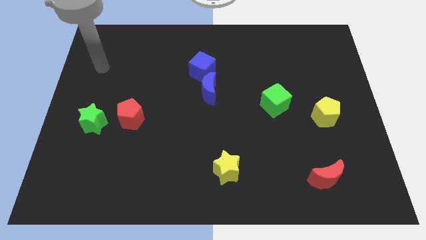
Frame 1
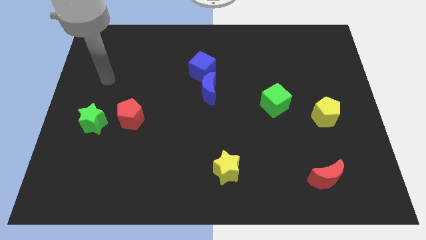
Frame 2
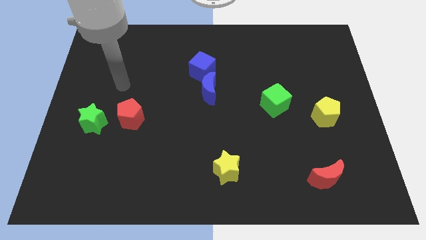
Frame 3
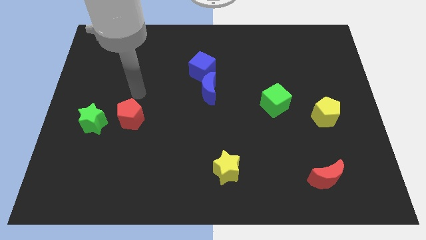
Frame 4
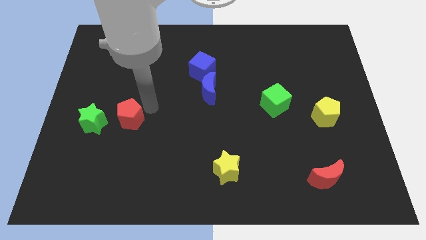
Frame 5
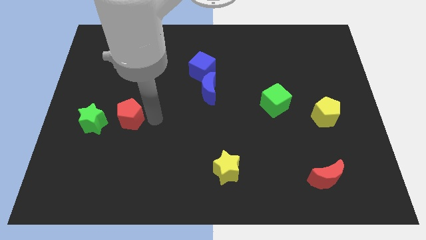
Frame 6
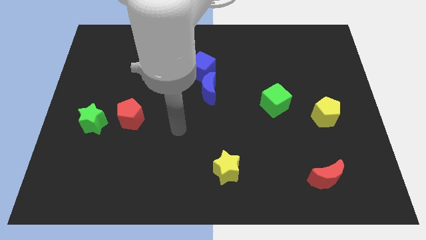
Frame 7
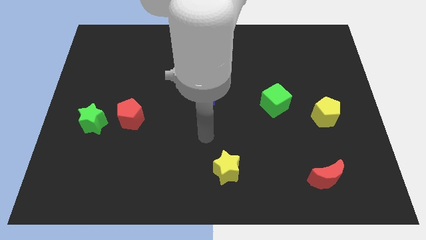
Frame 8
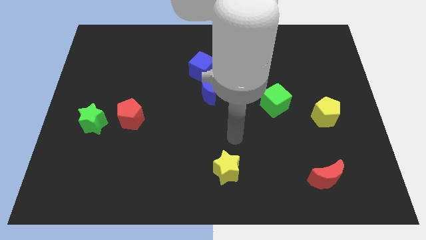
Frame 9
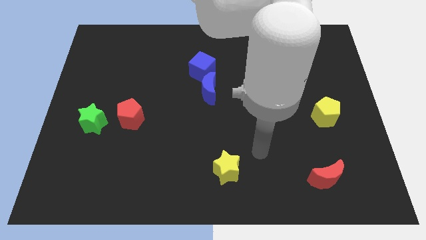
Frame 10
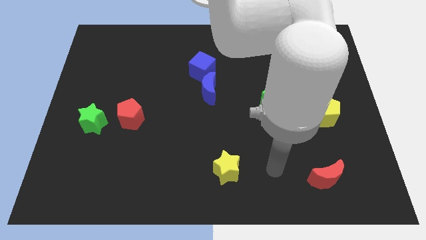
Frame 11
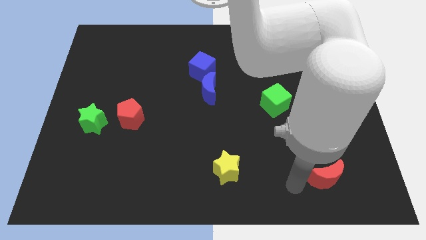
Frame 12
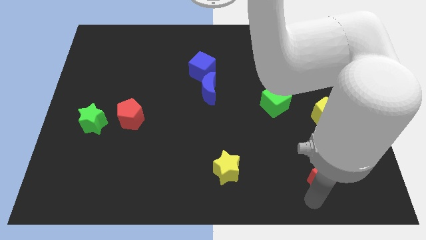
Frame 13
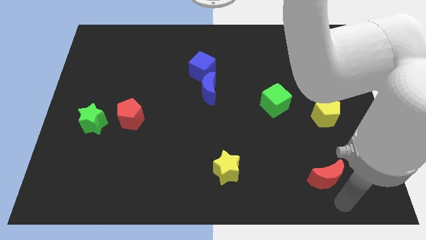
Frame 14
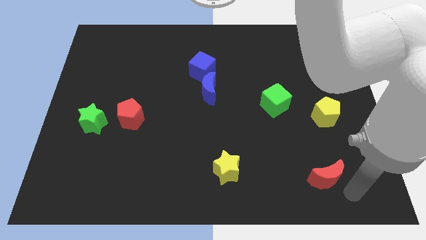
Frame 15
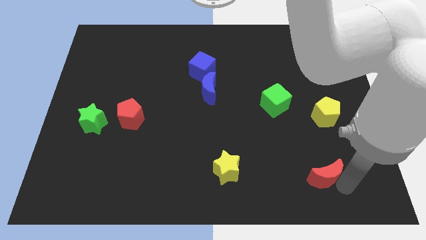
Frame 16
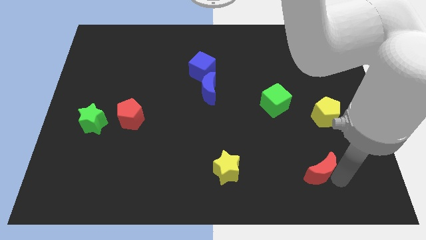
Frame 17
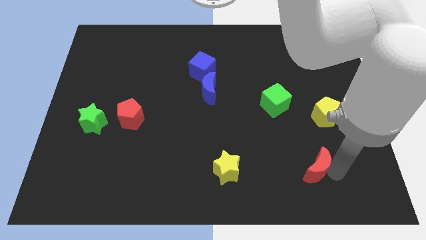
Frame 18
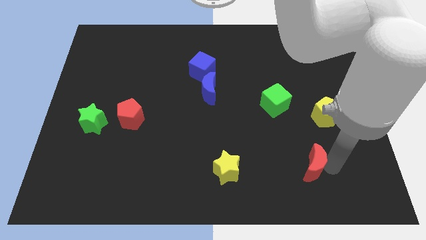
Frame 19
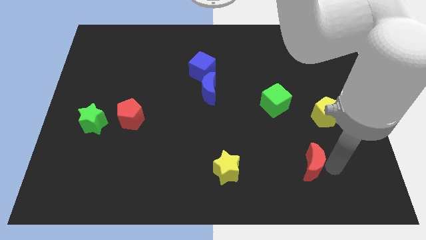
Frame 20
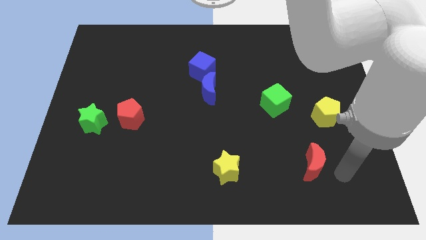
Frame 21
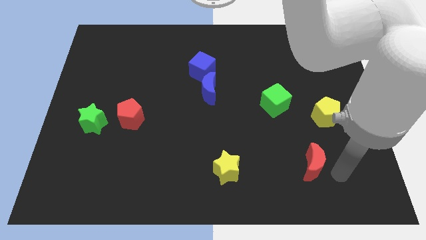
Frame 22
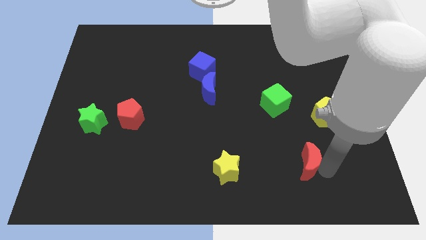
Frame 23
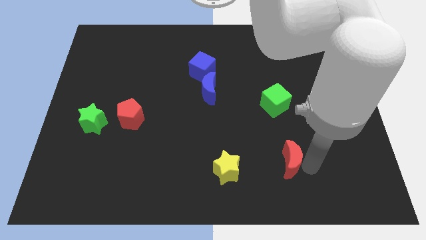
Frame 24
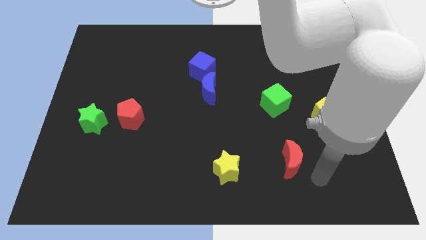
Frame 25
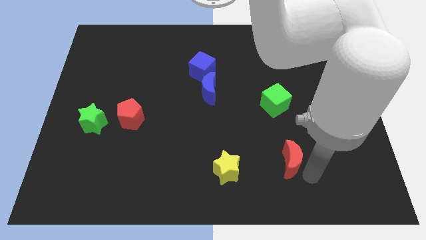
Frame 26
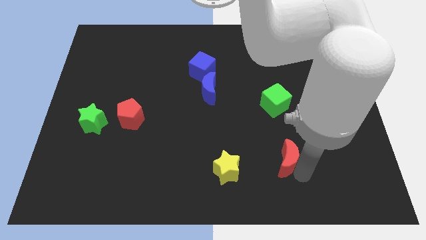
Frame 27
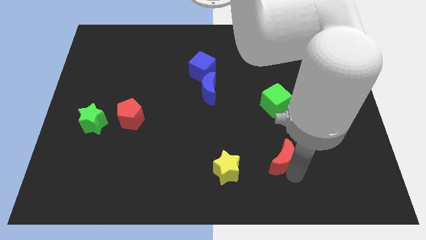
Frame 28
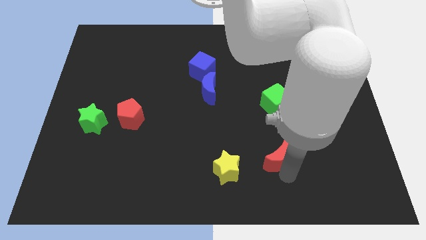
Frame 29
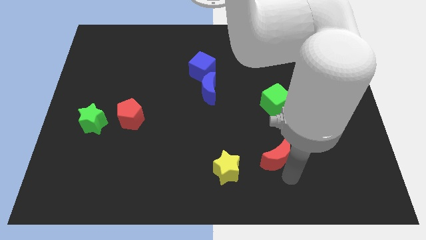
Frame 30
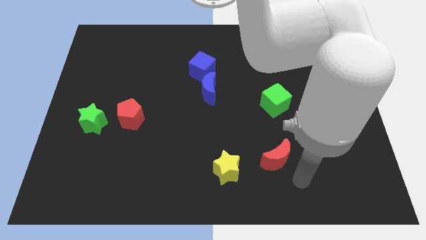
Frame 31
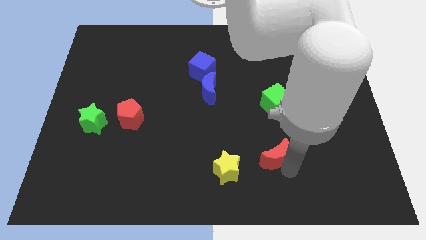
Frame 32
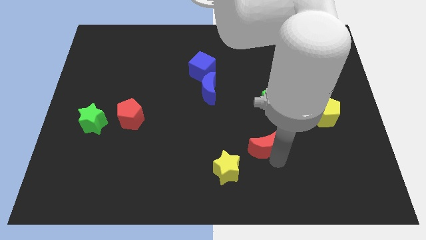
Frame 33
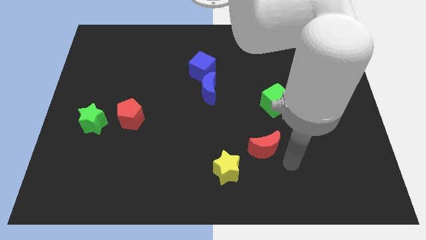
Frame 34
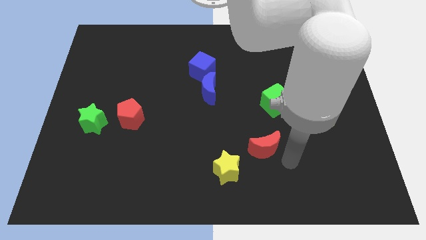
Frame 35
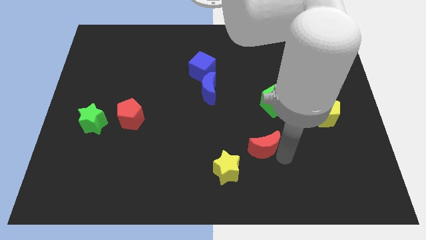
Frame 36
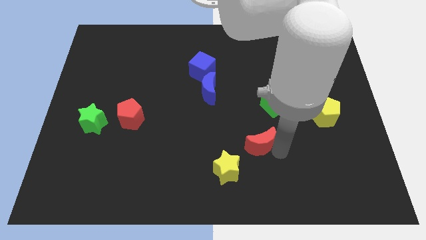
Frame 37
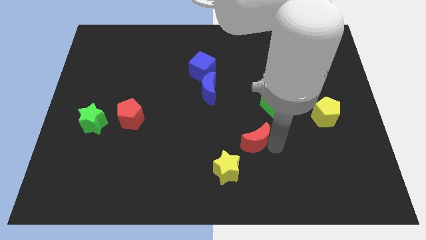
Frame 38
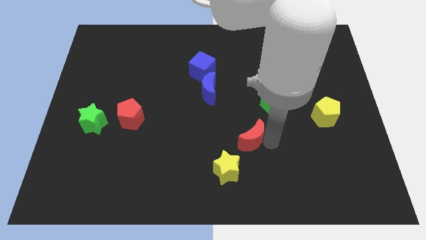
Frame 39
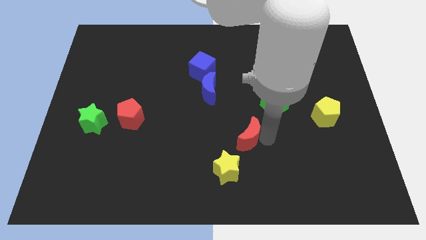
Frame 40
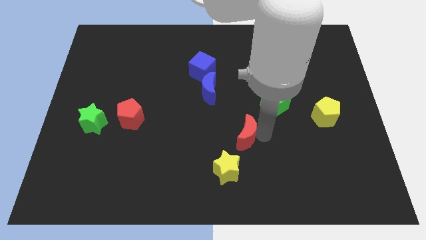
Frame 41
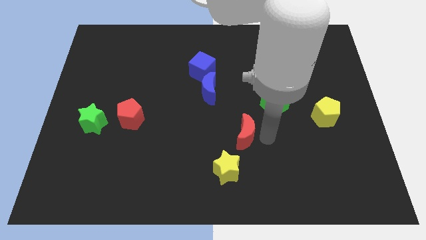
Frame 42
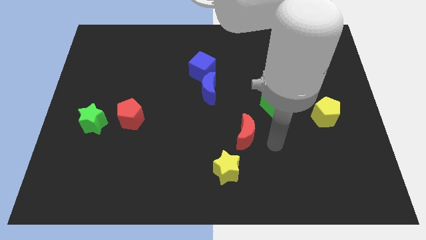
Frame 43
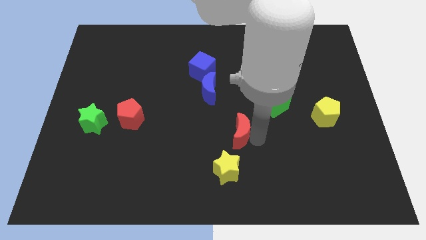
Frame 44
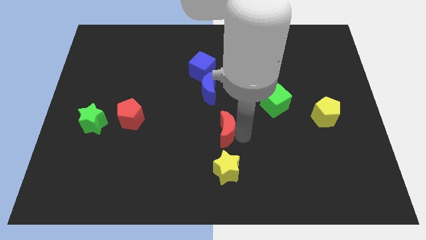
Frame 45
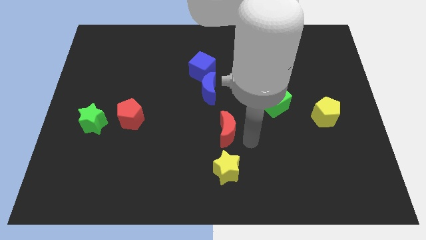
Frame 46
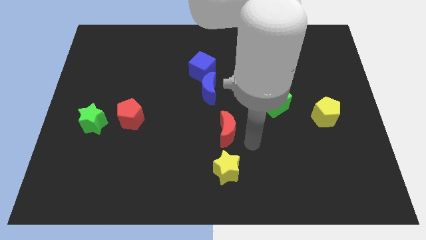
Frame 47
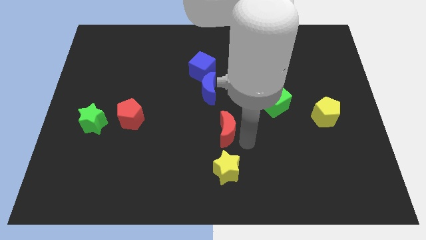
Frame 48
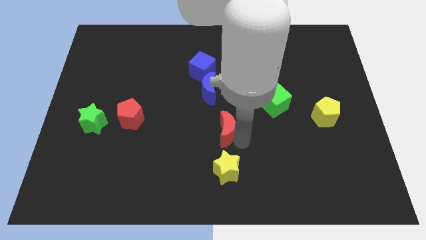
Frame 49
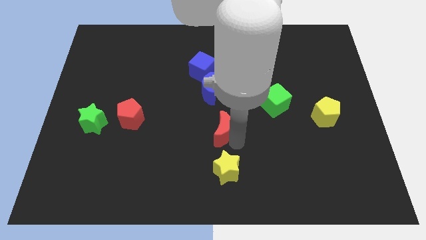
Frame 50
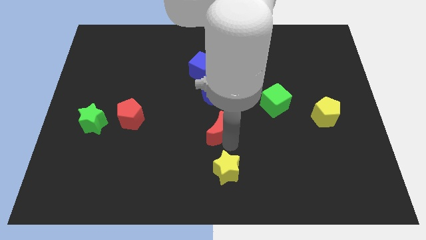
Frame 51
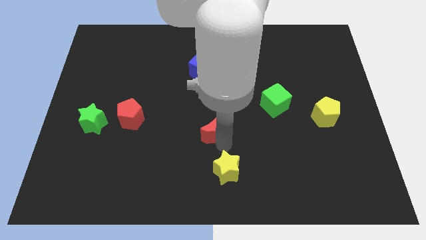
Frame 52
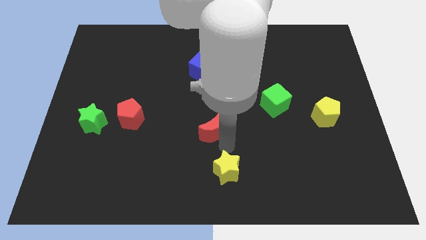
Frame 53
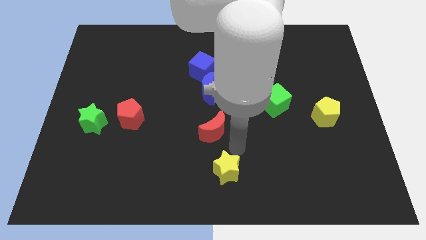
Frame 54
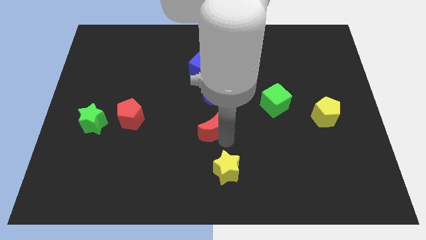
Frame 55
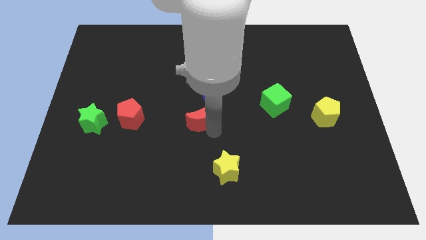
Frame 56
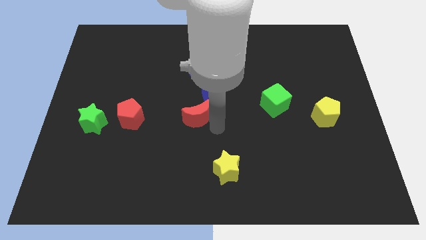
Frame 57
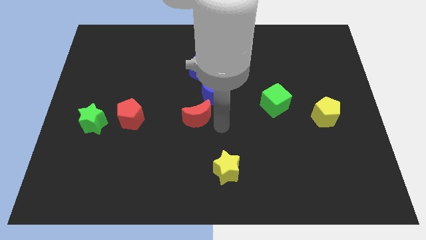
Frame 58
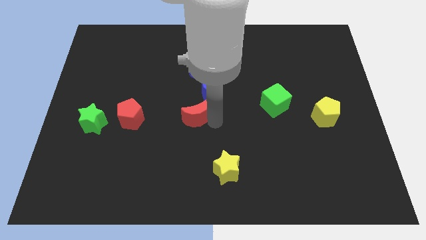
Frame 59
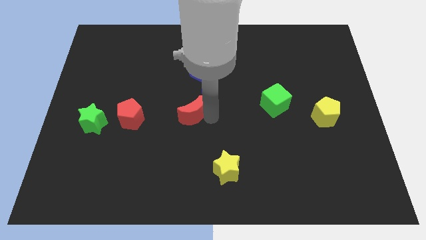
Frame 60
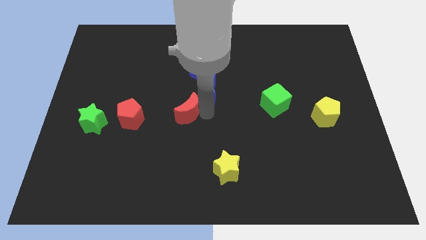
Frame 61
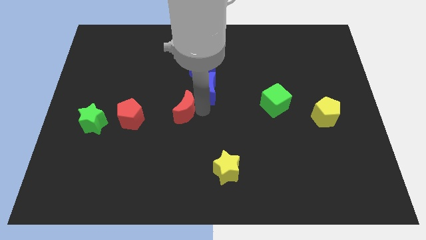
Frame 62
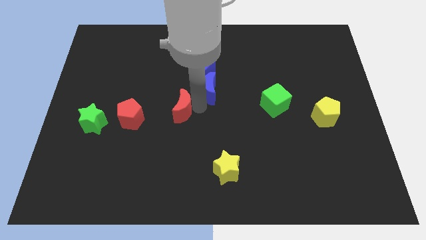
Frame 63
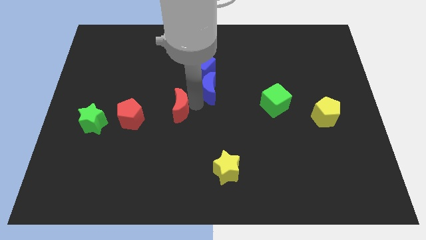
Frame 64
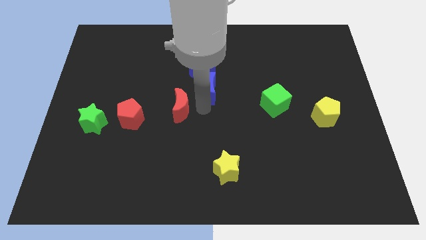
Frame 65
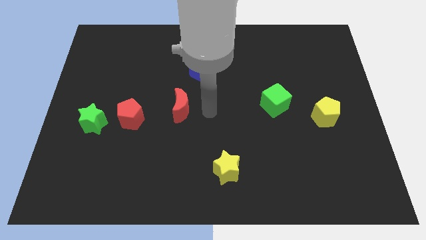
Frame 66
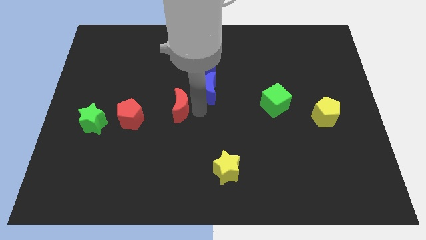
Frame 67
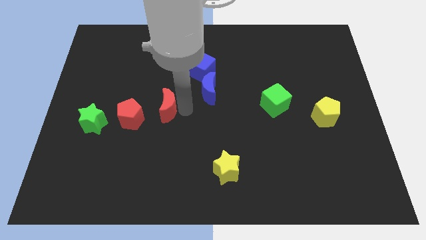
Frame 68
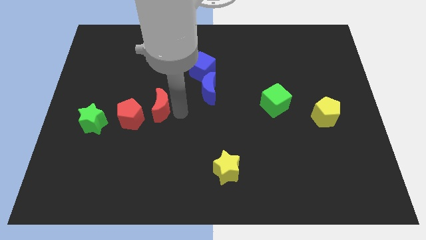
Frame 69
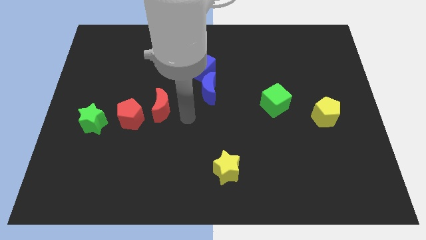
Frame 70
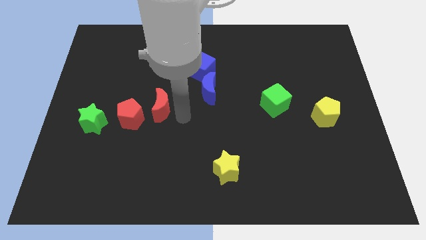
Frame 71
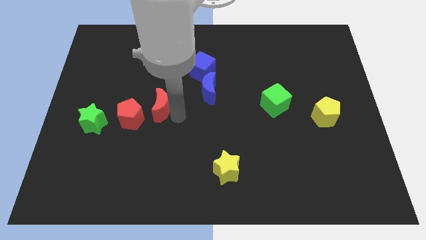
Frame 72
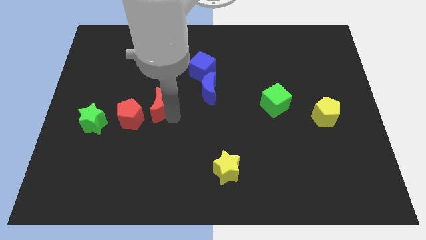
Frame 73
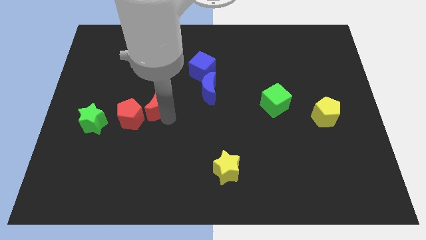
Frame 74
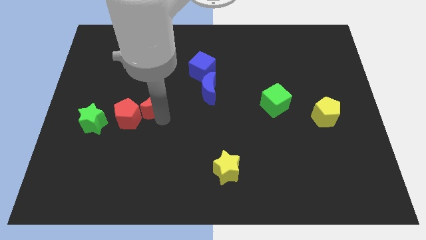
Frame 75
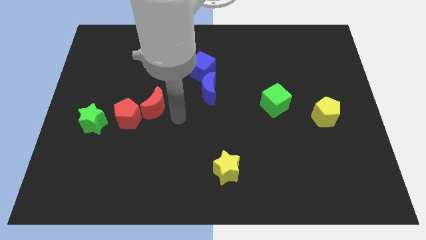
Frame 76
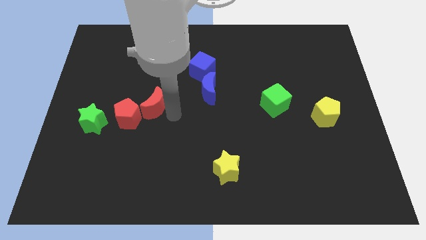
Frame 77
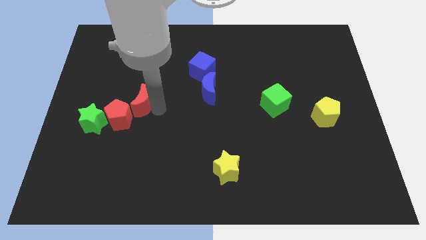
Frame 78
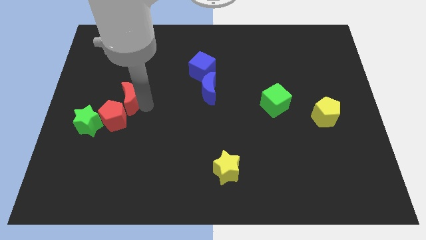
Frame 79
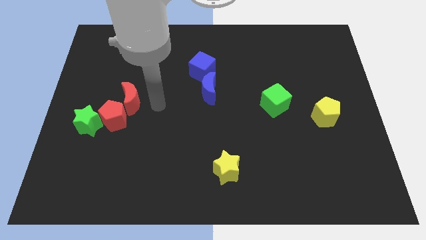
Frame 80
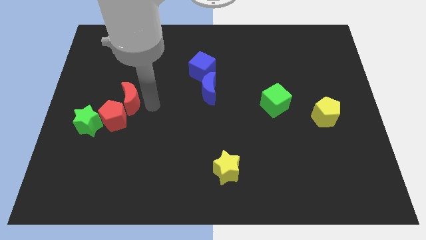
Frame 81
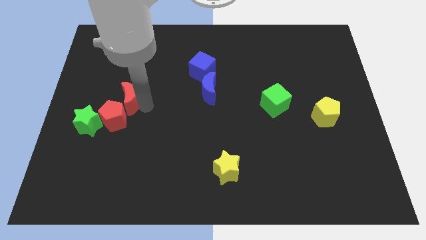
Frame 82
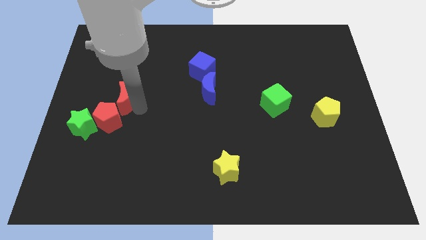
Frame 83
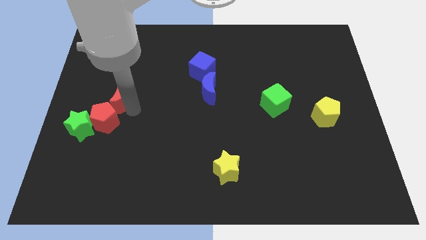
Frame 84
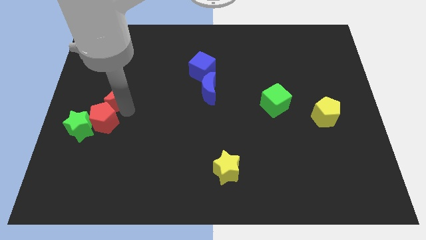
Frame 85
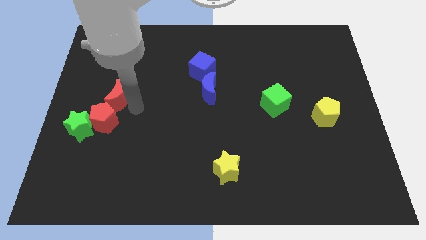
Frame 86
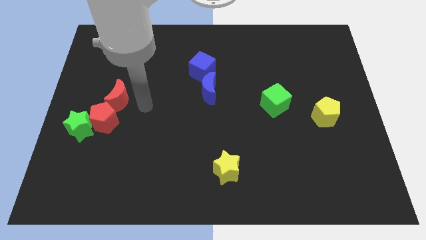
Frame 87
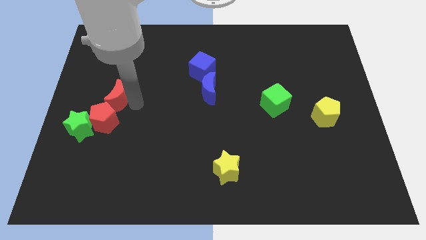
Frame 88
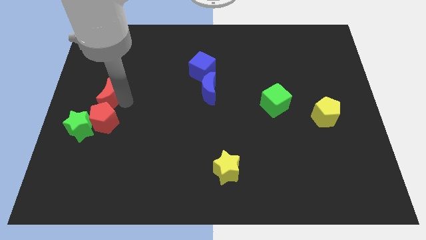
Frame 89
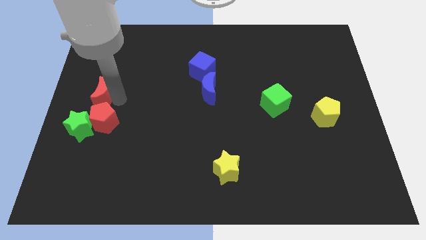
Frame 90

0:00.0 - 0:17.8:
slide the red moon to the center left
